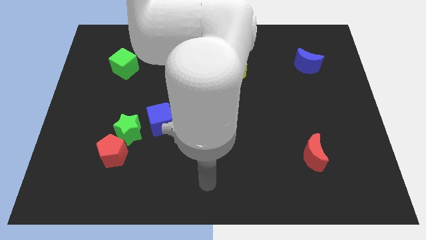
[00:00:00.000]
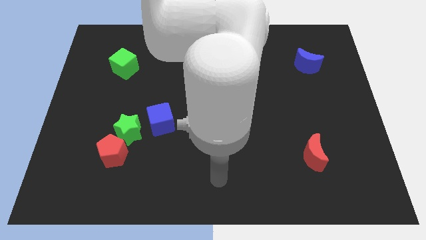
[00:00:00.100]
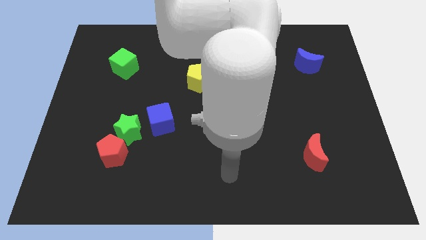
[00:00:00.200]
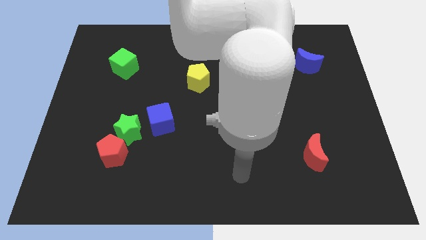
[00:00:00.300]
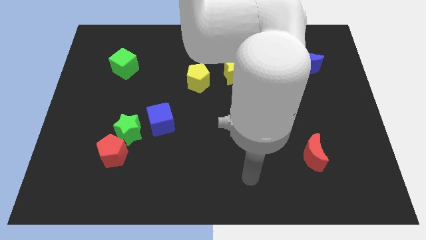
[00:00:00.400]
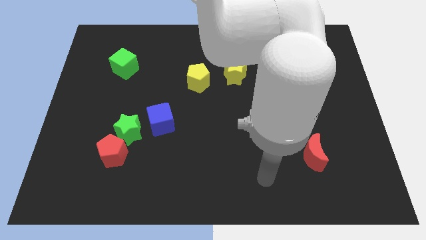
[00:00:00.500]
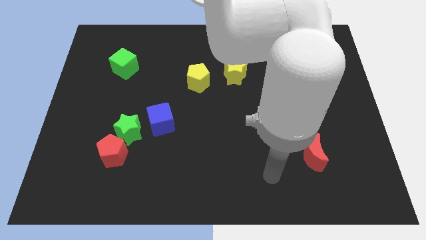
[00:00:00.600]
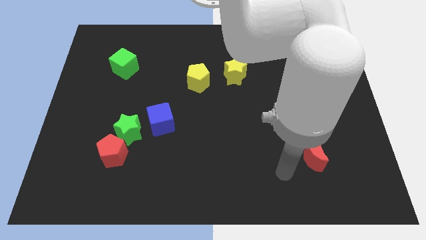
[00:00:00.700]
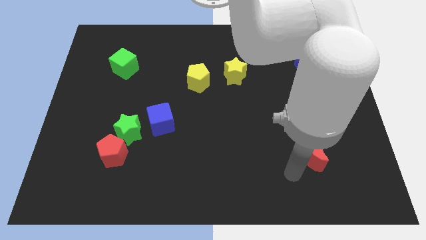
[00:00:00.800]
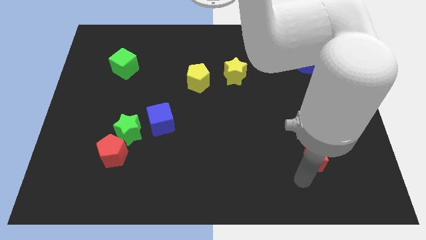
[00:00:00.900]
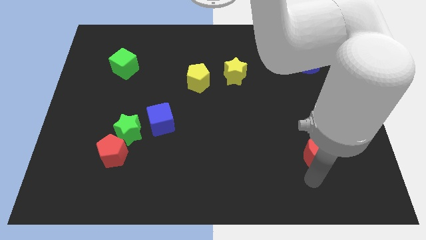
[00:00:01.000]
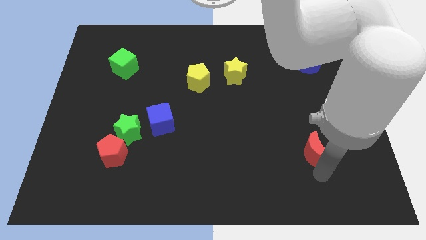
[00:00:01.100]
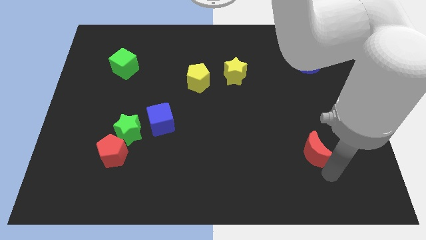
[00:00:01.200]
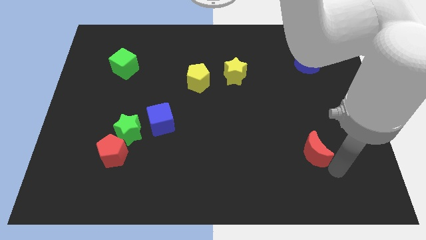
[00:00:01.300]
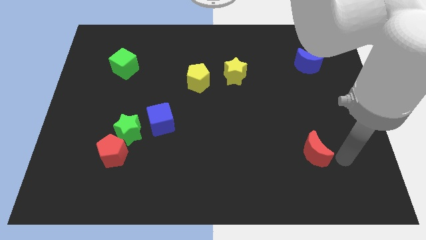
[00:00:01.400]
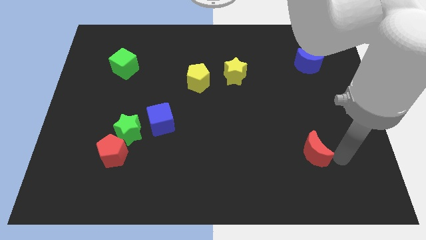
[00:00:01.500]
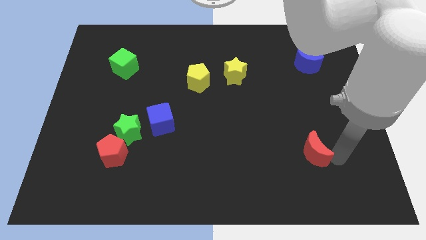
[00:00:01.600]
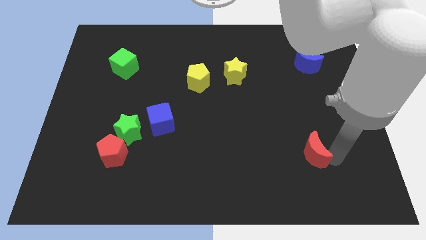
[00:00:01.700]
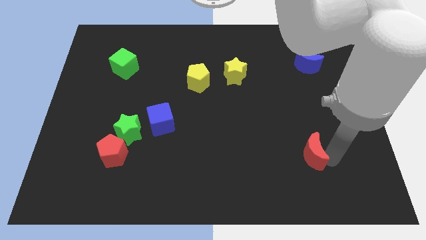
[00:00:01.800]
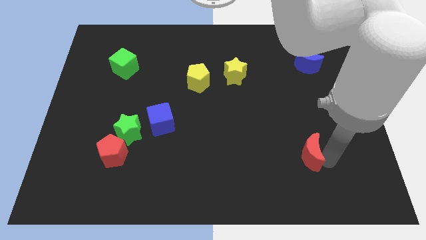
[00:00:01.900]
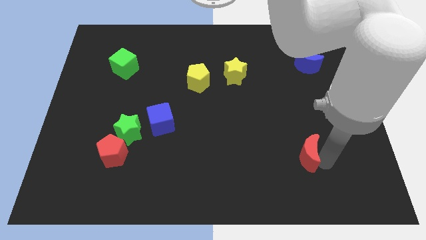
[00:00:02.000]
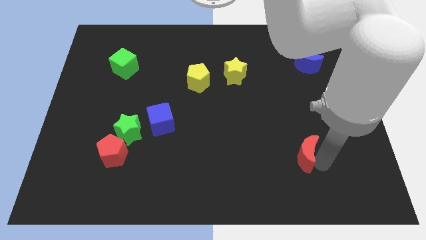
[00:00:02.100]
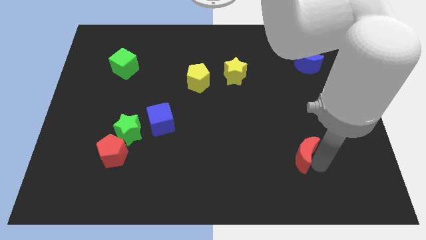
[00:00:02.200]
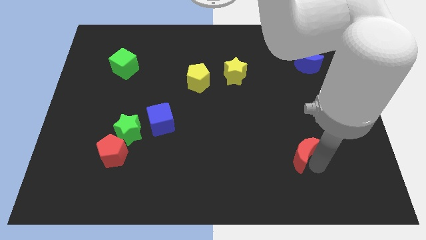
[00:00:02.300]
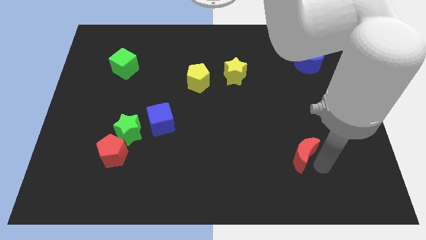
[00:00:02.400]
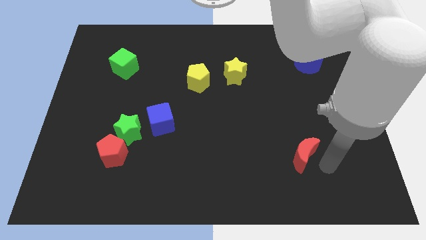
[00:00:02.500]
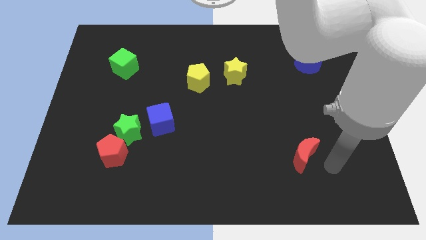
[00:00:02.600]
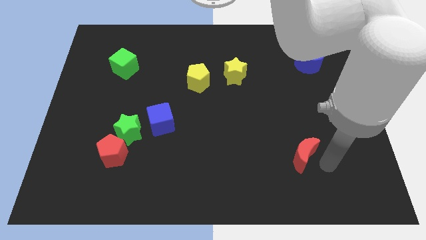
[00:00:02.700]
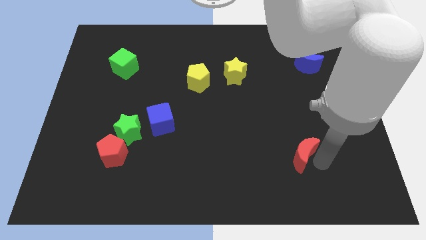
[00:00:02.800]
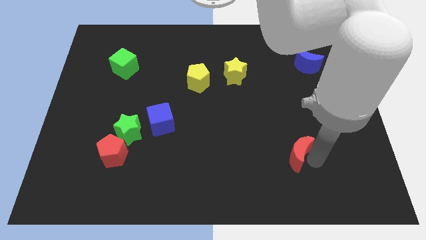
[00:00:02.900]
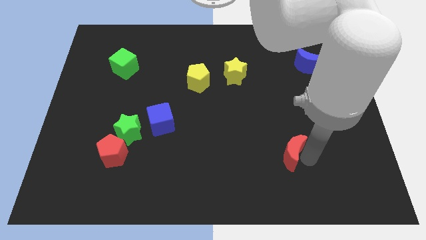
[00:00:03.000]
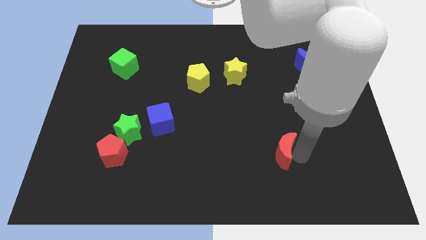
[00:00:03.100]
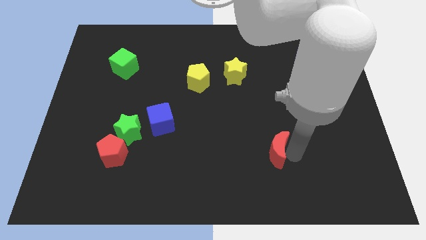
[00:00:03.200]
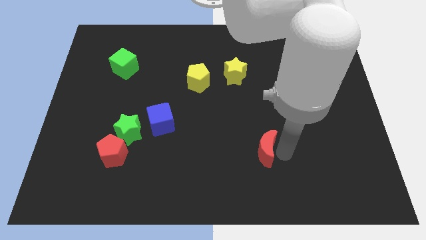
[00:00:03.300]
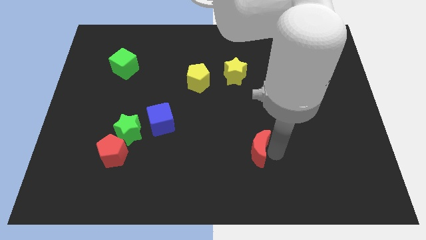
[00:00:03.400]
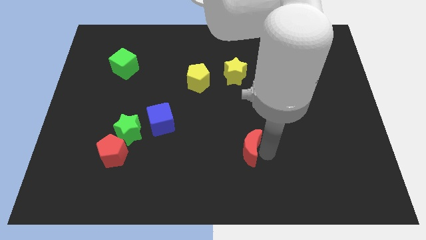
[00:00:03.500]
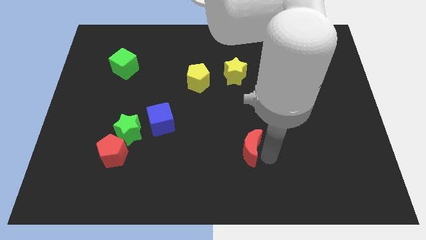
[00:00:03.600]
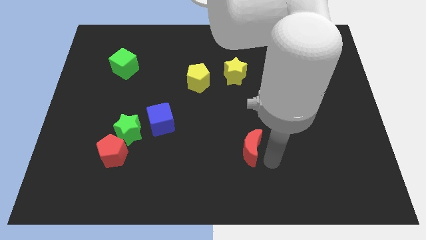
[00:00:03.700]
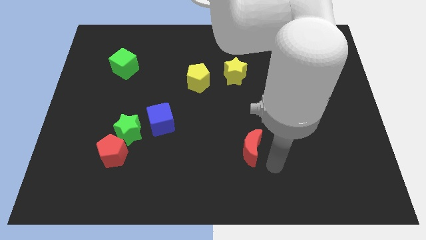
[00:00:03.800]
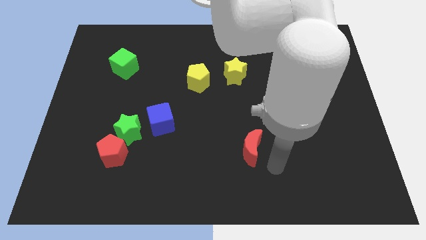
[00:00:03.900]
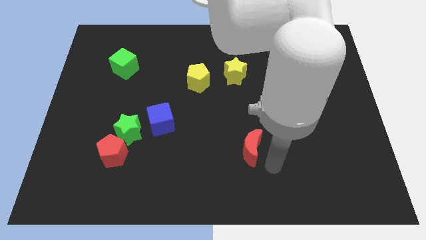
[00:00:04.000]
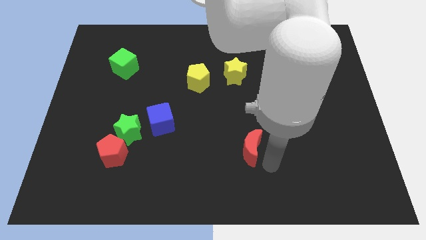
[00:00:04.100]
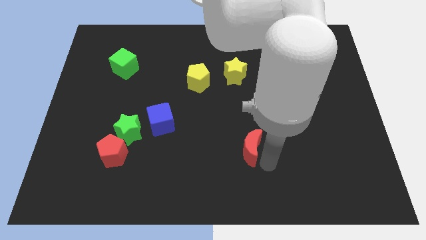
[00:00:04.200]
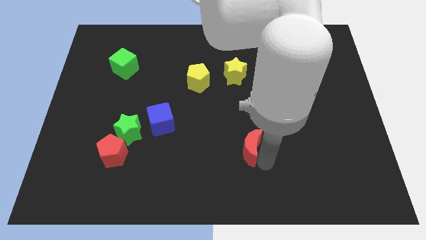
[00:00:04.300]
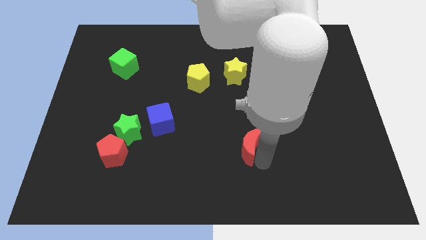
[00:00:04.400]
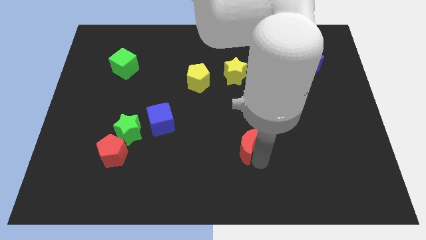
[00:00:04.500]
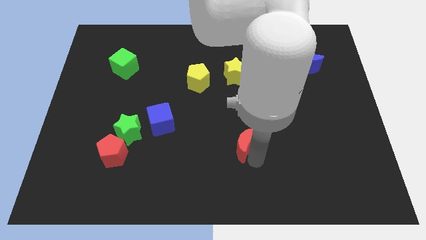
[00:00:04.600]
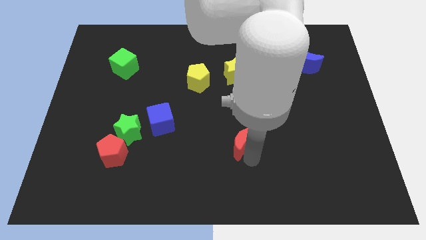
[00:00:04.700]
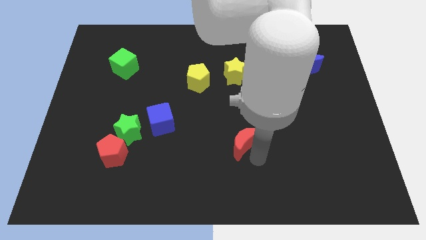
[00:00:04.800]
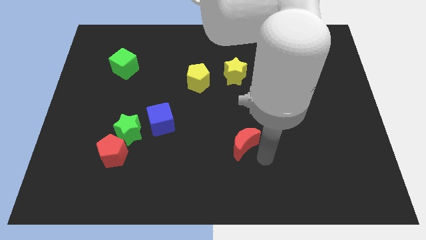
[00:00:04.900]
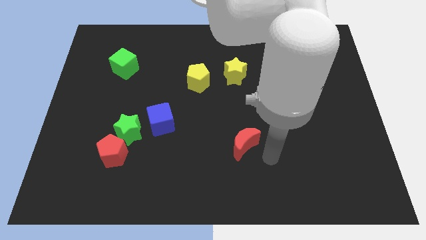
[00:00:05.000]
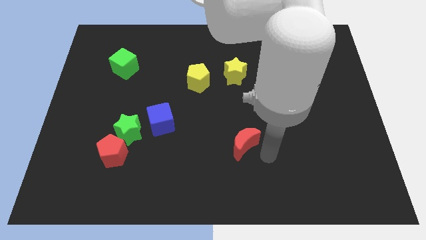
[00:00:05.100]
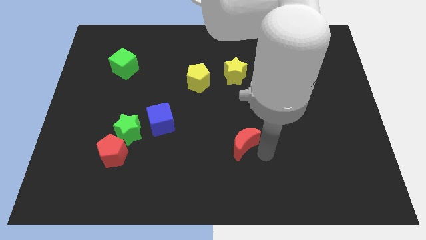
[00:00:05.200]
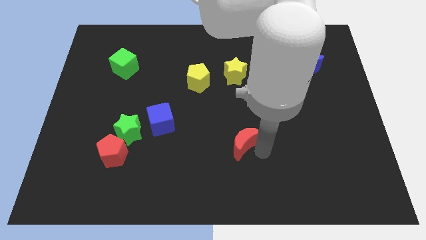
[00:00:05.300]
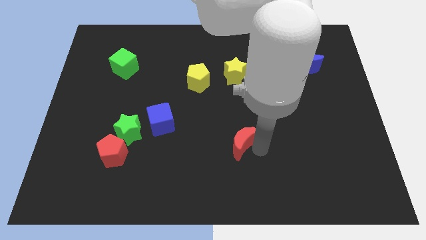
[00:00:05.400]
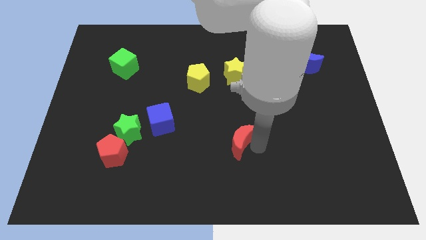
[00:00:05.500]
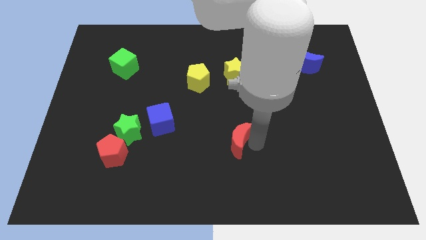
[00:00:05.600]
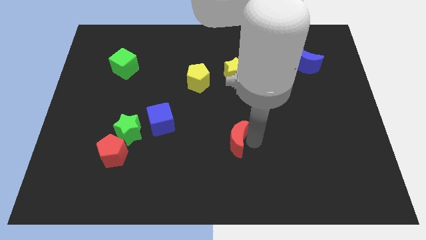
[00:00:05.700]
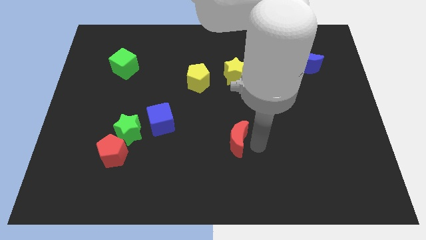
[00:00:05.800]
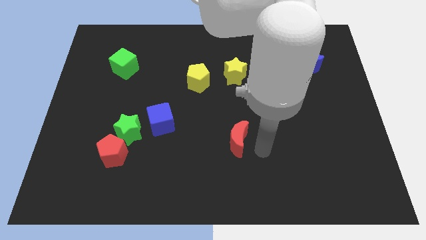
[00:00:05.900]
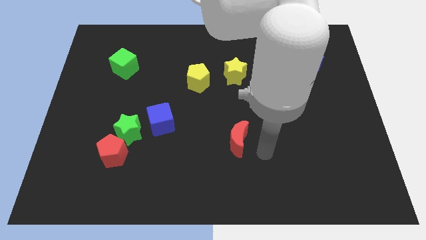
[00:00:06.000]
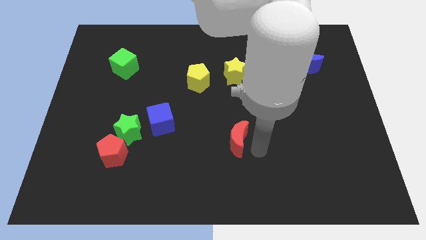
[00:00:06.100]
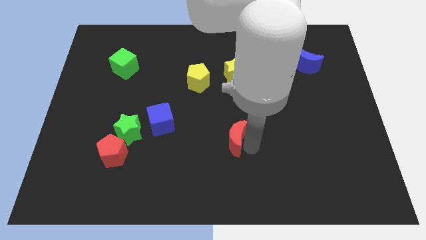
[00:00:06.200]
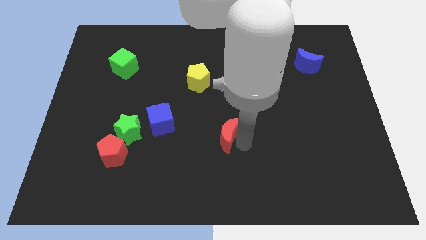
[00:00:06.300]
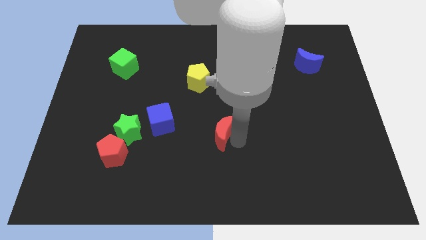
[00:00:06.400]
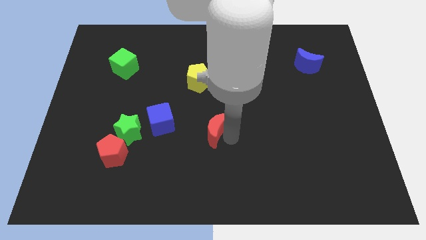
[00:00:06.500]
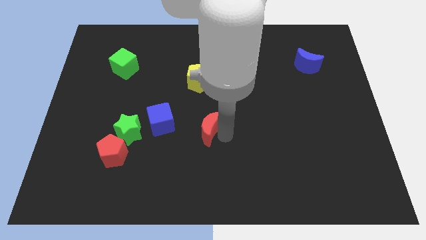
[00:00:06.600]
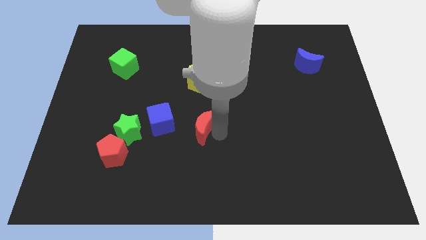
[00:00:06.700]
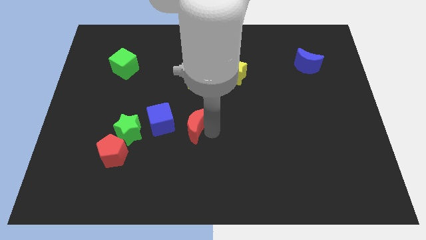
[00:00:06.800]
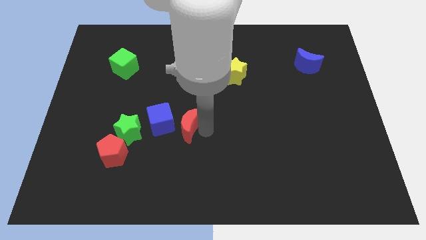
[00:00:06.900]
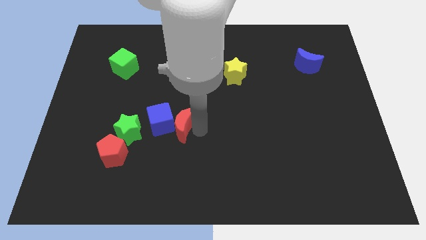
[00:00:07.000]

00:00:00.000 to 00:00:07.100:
move the red moon towards the blue cube
